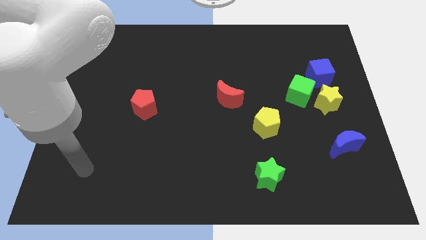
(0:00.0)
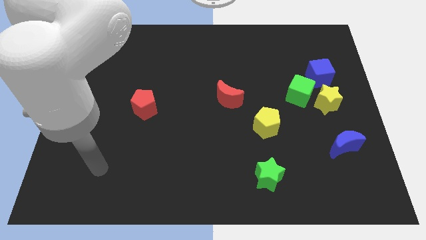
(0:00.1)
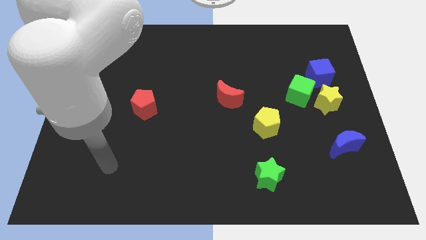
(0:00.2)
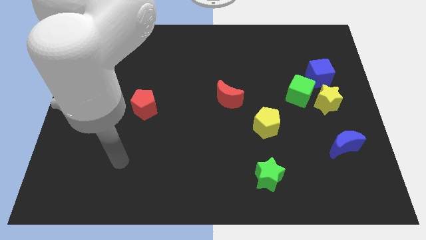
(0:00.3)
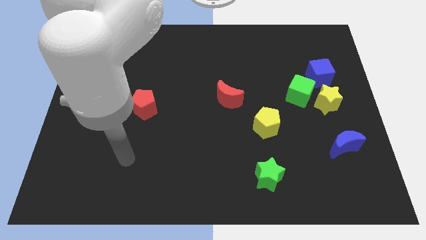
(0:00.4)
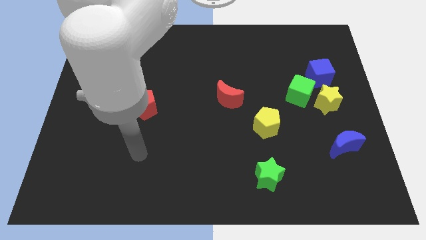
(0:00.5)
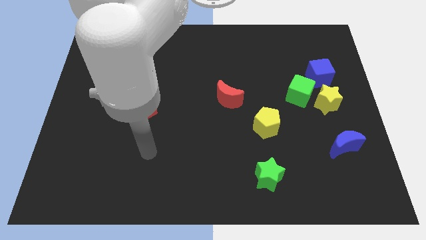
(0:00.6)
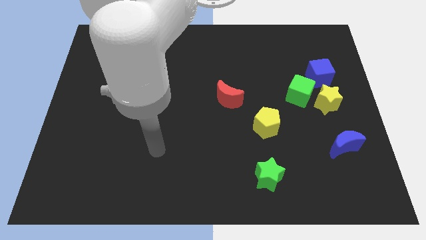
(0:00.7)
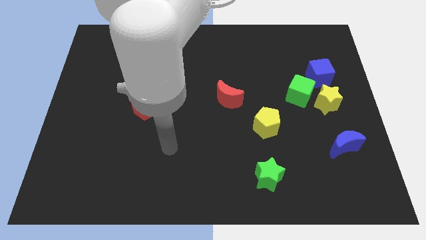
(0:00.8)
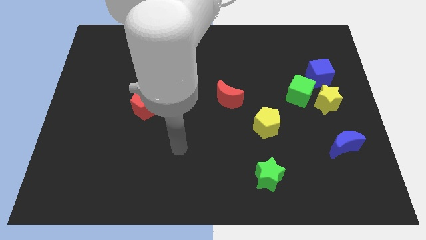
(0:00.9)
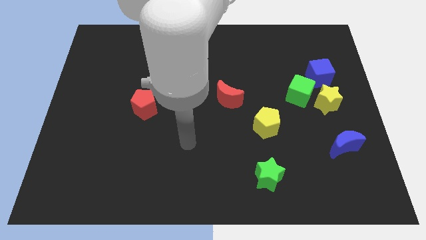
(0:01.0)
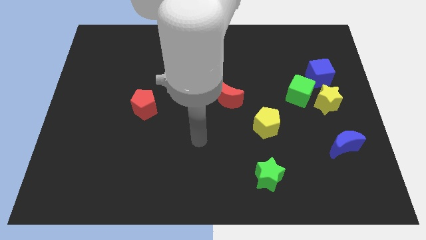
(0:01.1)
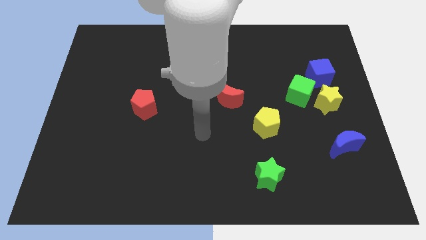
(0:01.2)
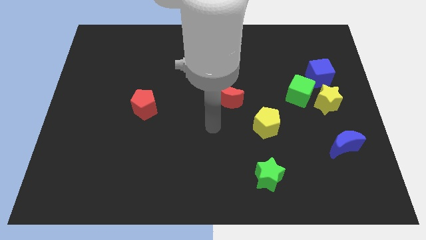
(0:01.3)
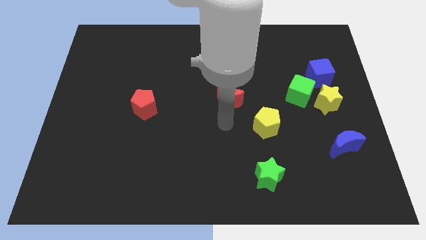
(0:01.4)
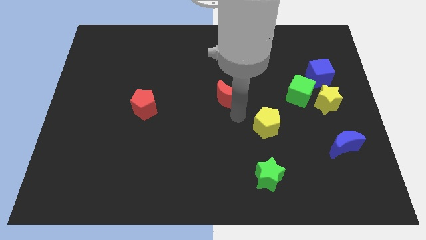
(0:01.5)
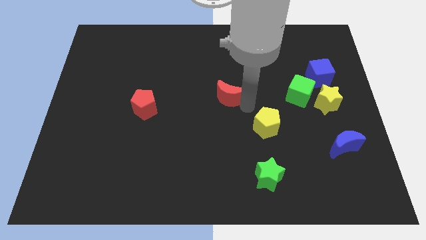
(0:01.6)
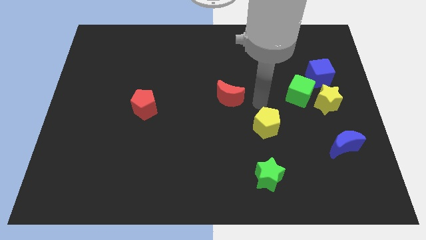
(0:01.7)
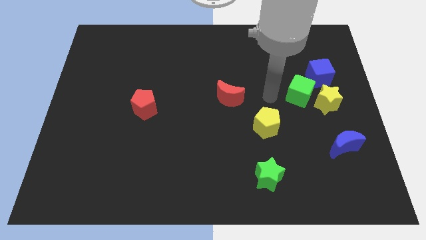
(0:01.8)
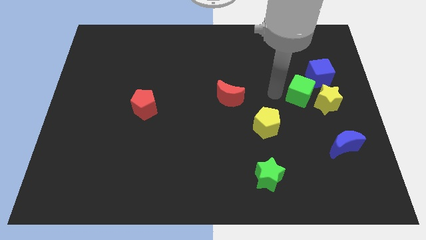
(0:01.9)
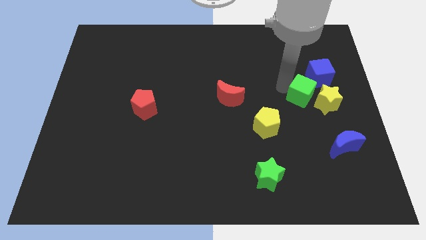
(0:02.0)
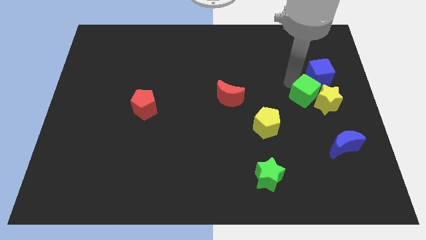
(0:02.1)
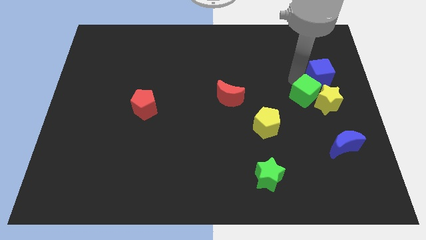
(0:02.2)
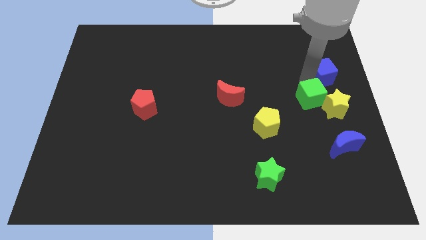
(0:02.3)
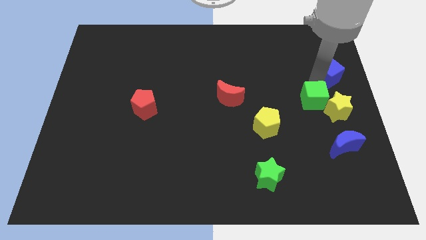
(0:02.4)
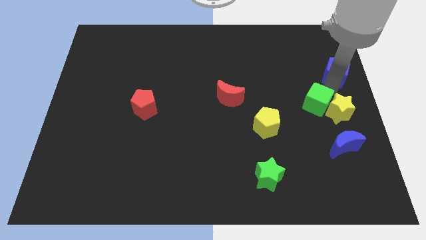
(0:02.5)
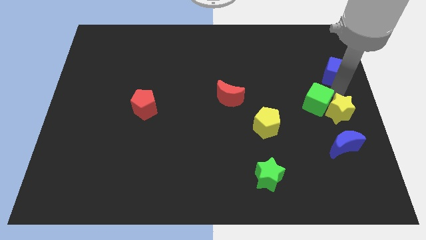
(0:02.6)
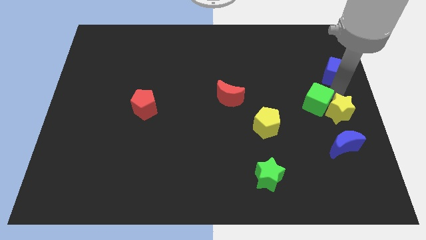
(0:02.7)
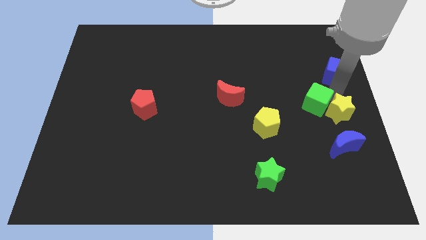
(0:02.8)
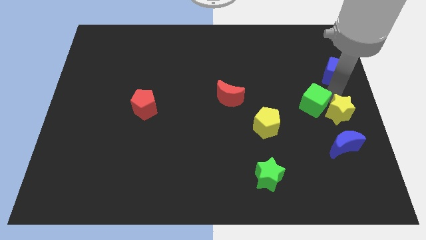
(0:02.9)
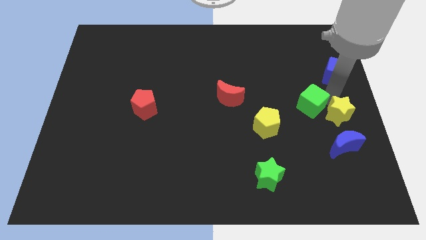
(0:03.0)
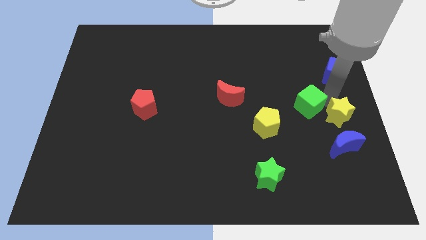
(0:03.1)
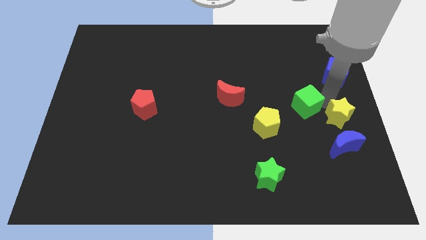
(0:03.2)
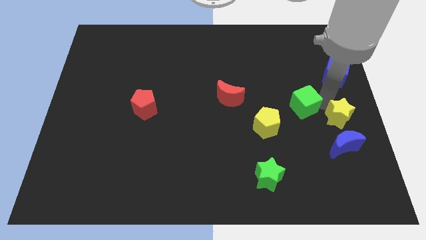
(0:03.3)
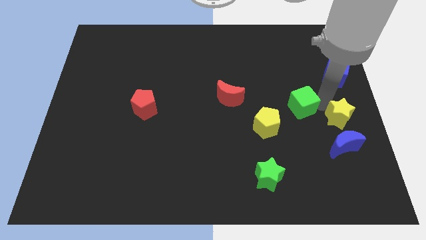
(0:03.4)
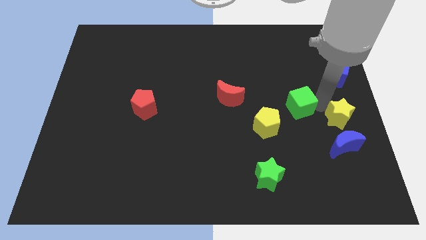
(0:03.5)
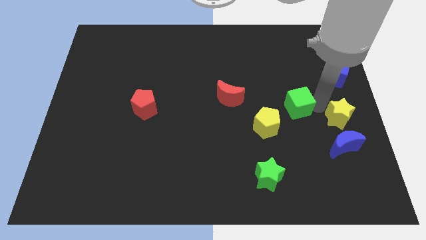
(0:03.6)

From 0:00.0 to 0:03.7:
move the green cube away from the yellow star and blue cube

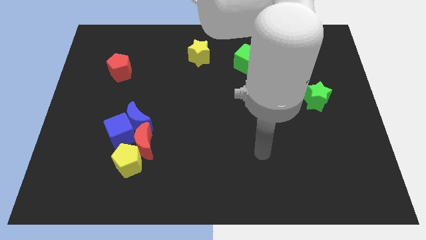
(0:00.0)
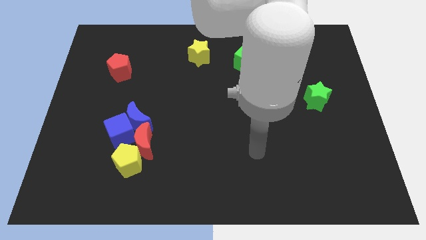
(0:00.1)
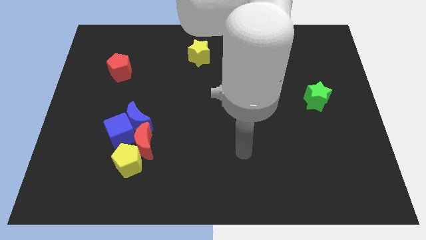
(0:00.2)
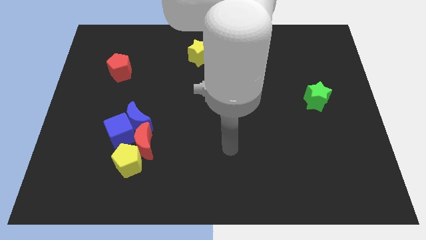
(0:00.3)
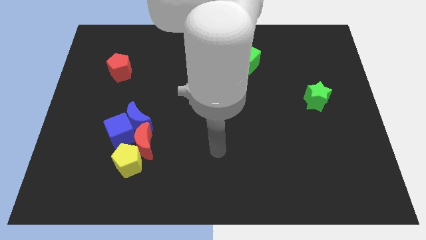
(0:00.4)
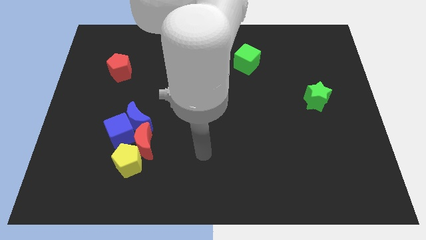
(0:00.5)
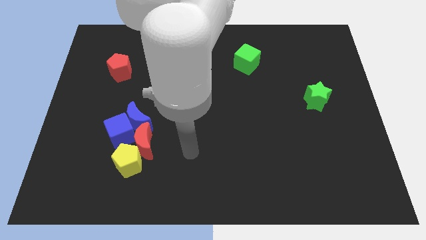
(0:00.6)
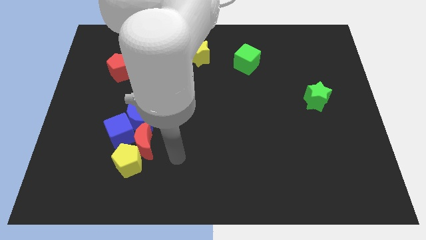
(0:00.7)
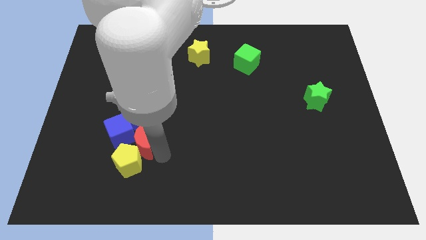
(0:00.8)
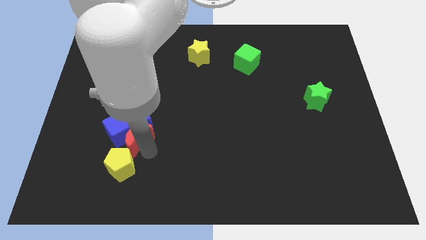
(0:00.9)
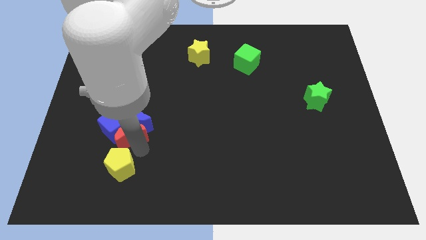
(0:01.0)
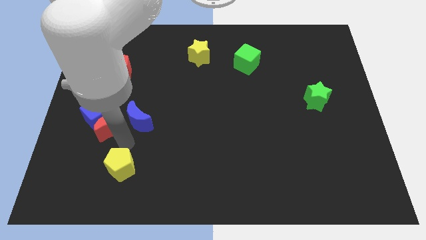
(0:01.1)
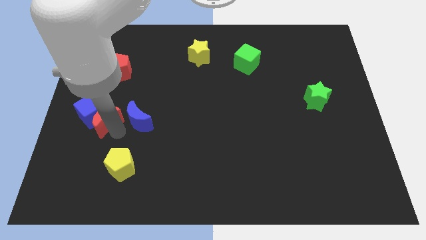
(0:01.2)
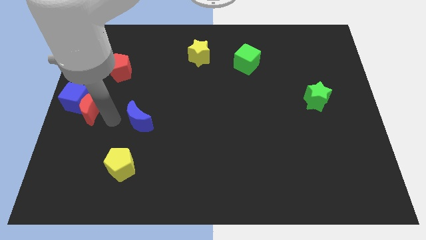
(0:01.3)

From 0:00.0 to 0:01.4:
move the blue moon away from the blue cube and red moon

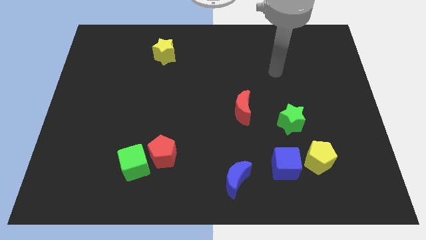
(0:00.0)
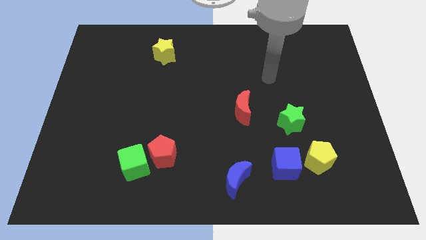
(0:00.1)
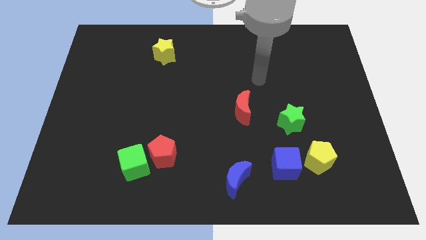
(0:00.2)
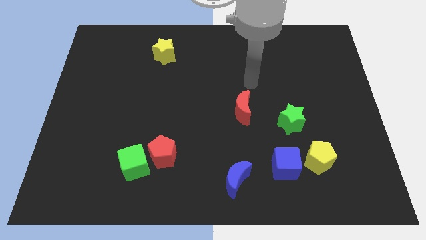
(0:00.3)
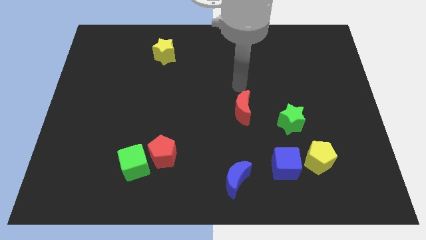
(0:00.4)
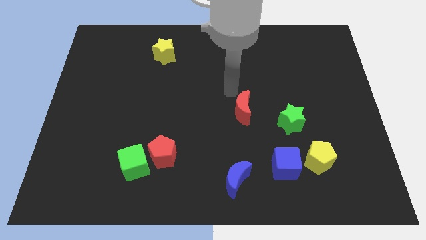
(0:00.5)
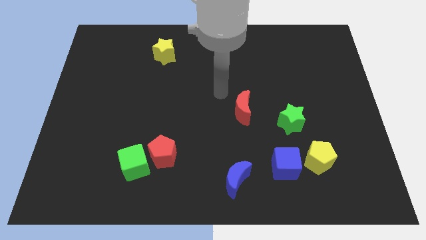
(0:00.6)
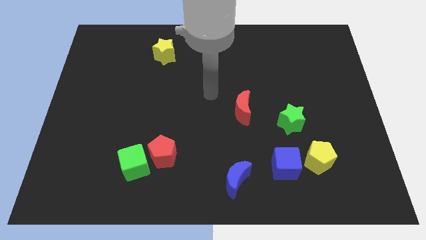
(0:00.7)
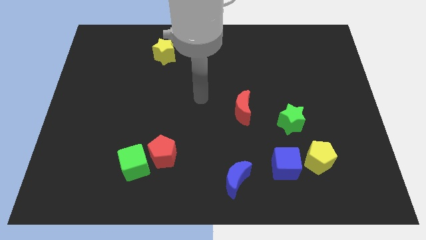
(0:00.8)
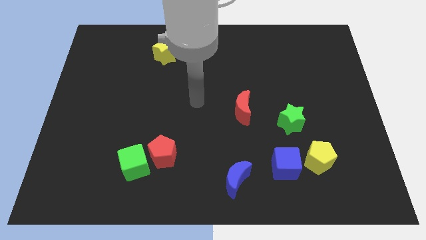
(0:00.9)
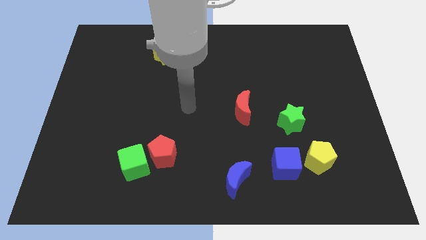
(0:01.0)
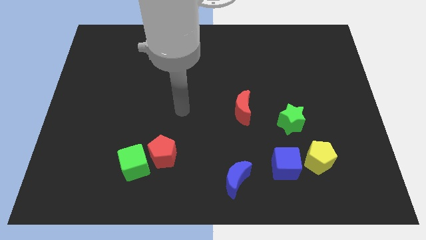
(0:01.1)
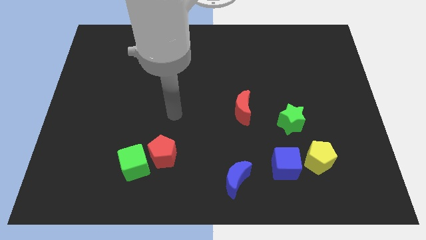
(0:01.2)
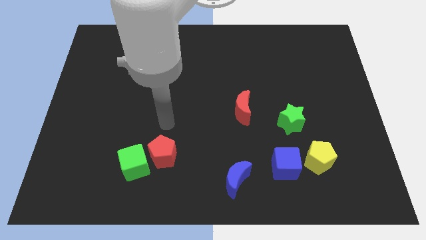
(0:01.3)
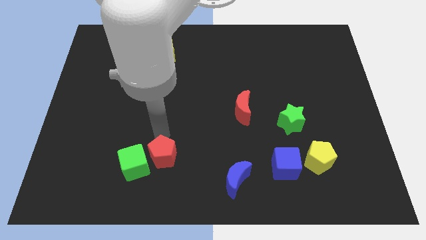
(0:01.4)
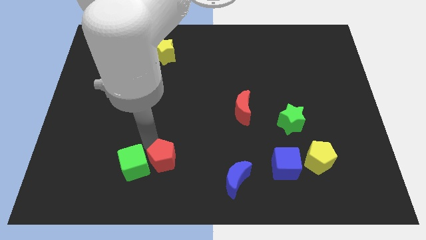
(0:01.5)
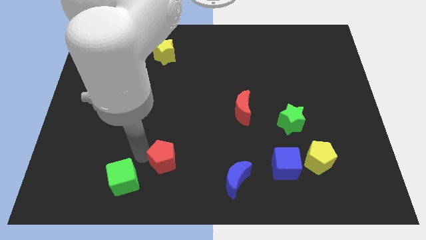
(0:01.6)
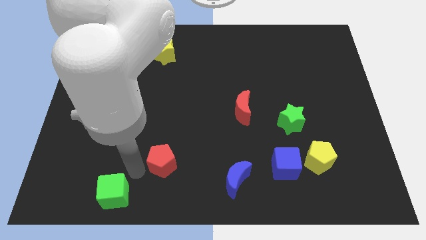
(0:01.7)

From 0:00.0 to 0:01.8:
move the red pentagon away from the green cube

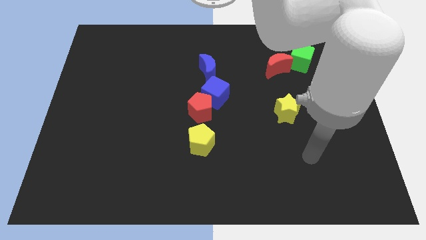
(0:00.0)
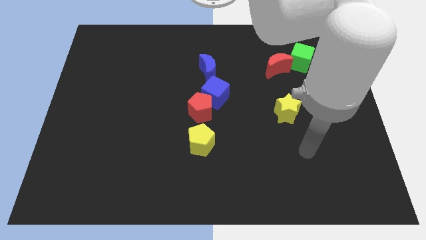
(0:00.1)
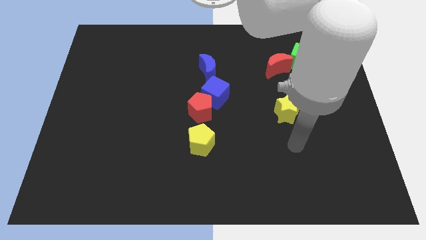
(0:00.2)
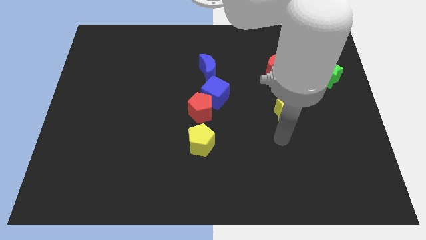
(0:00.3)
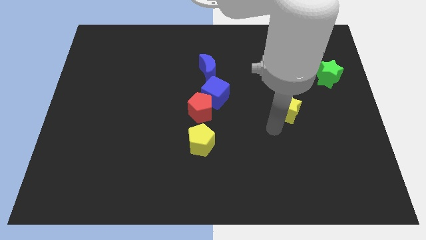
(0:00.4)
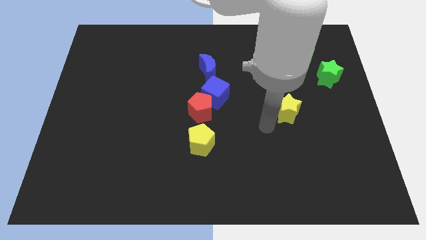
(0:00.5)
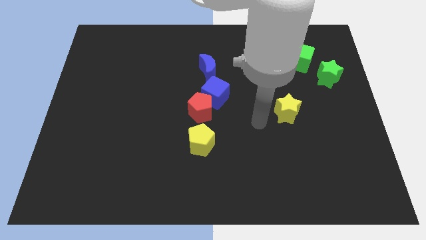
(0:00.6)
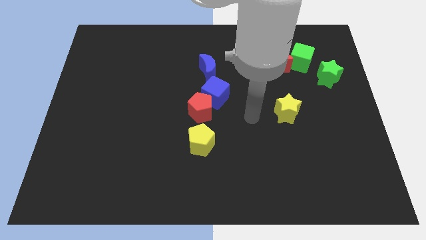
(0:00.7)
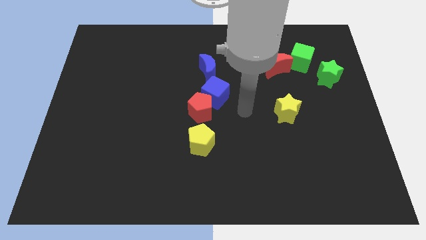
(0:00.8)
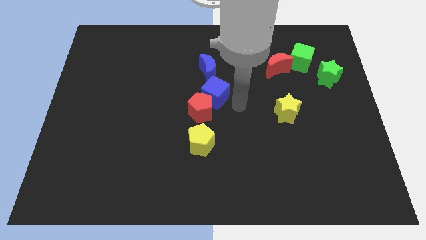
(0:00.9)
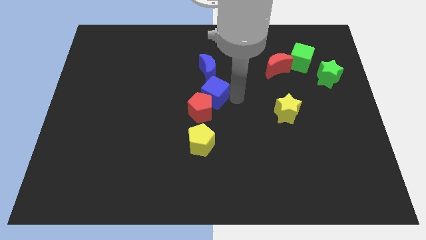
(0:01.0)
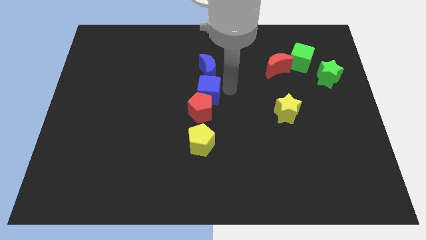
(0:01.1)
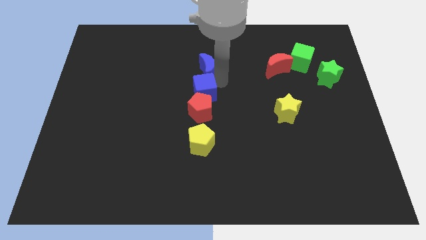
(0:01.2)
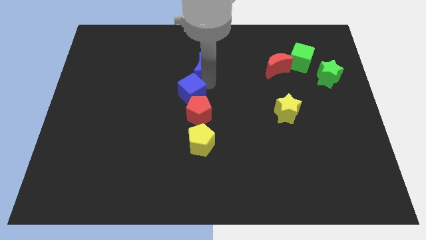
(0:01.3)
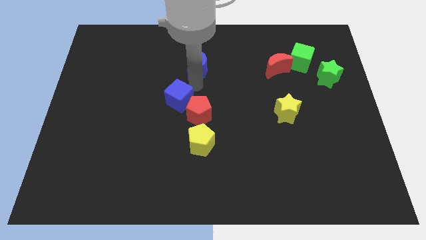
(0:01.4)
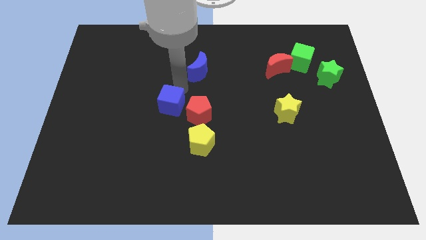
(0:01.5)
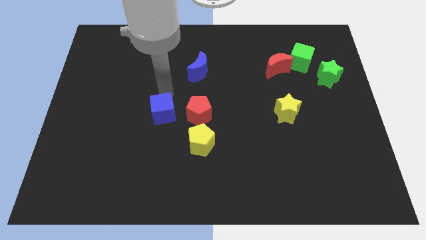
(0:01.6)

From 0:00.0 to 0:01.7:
separate the blue cube from the red pentagon and blue moon

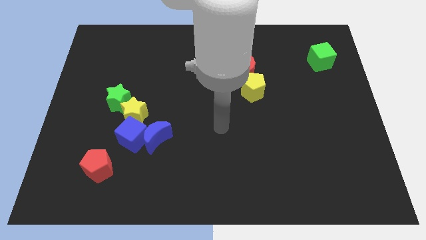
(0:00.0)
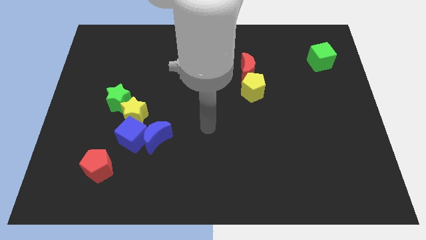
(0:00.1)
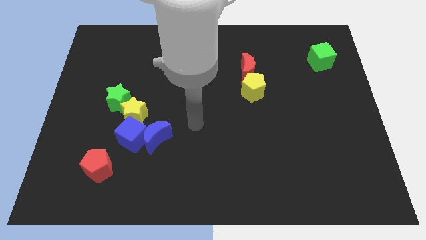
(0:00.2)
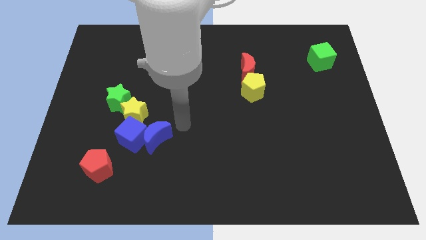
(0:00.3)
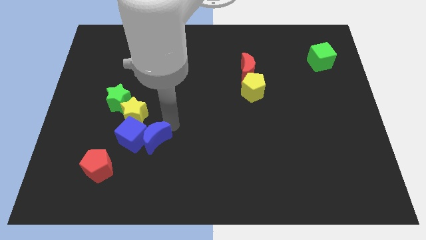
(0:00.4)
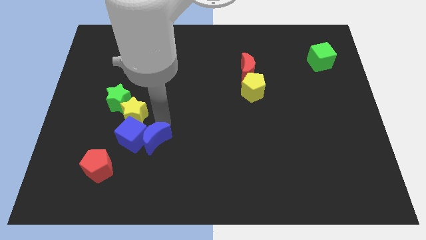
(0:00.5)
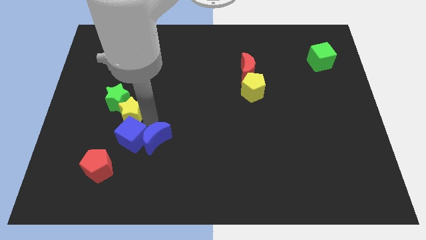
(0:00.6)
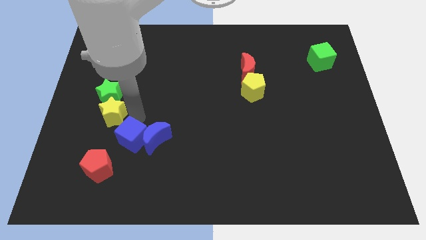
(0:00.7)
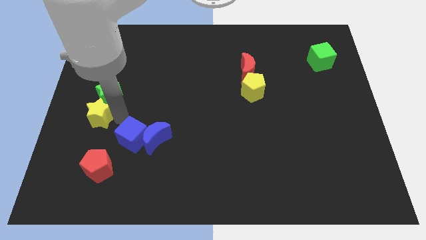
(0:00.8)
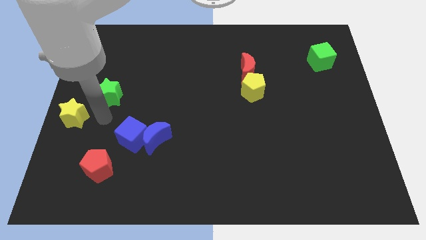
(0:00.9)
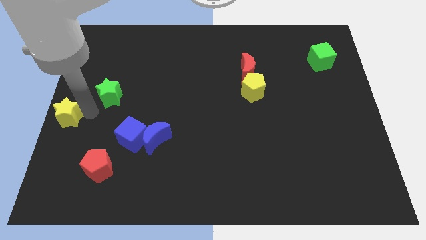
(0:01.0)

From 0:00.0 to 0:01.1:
pull the green star apart from the yellow star
